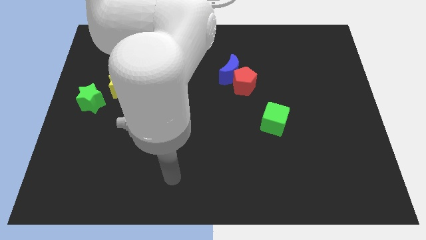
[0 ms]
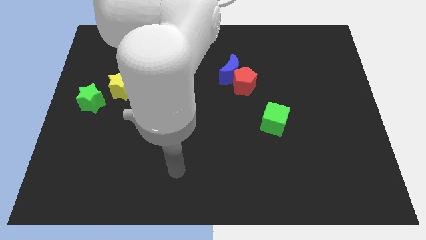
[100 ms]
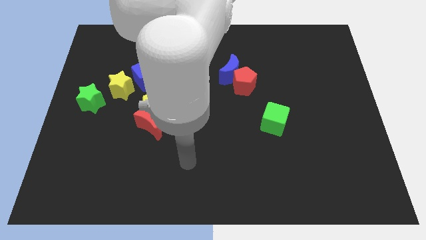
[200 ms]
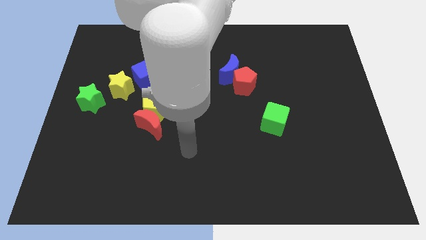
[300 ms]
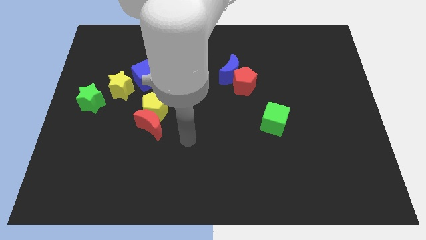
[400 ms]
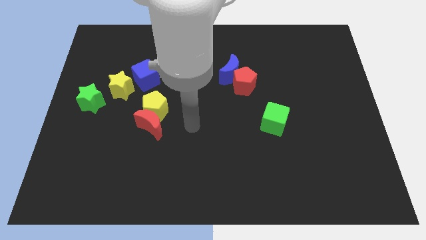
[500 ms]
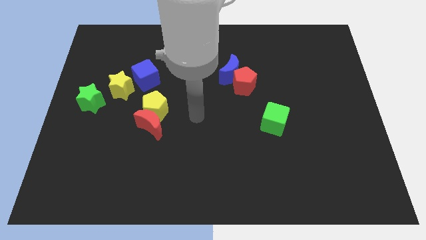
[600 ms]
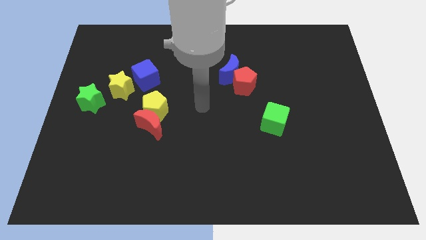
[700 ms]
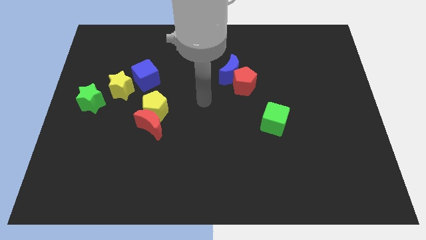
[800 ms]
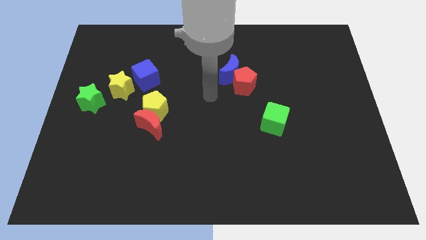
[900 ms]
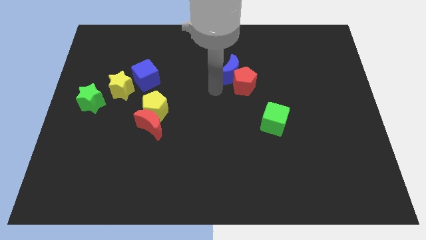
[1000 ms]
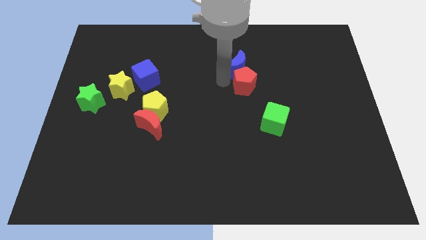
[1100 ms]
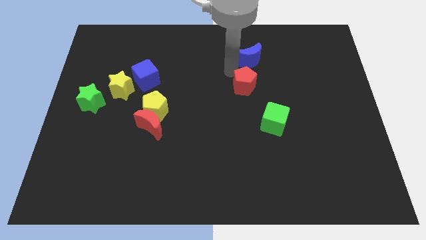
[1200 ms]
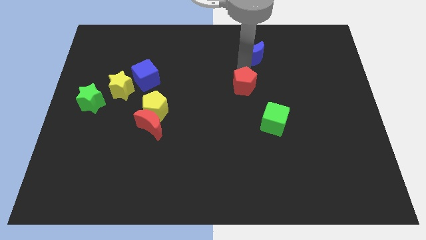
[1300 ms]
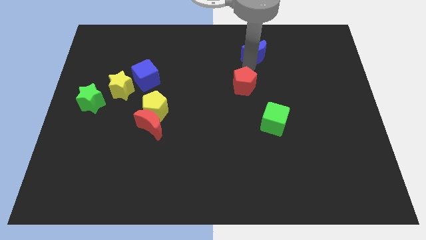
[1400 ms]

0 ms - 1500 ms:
move the red pentagon away from the blue moon

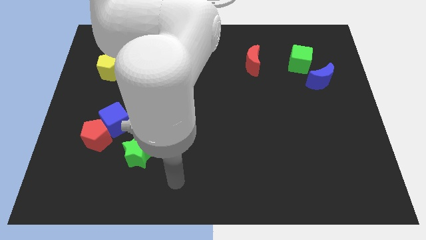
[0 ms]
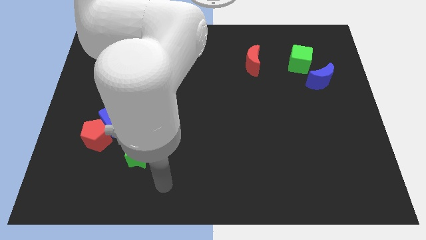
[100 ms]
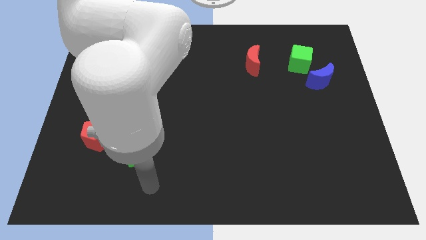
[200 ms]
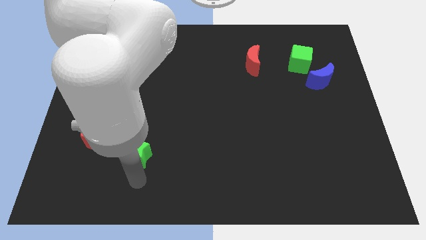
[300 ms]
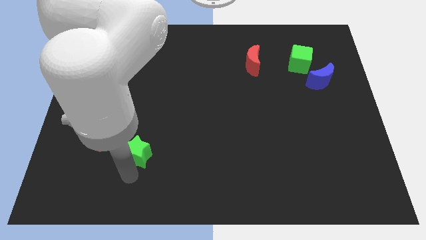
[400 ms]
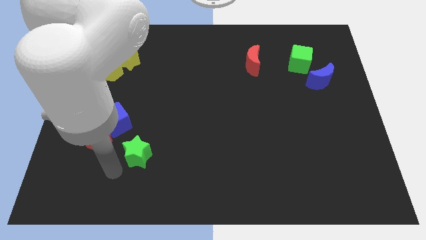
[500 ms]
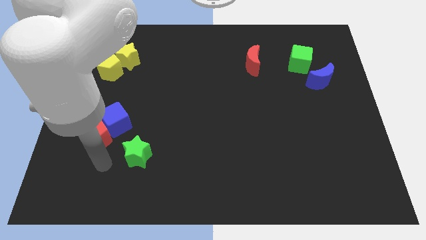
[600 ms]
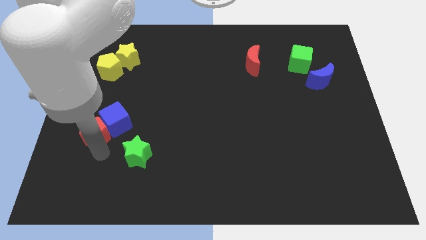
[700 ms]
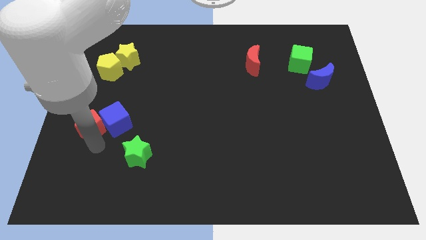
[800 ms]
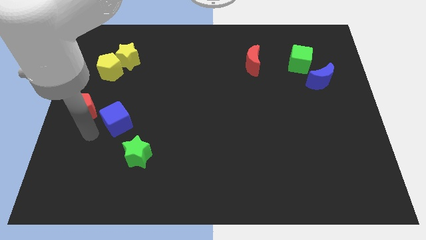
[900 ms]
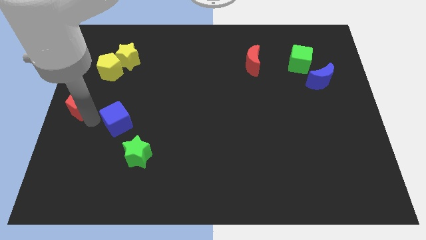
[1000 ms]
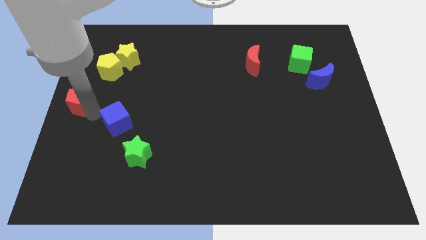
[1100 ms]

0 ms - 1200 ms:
move the blue cube away from the red pentagon

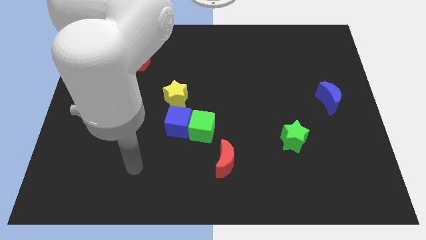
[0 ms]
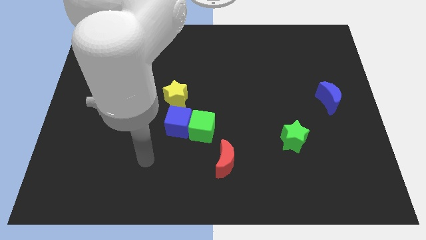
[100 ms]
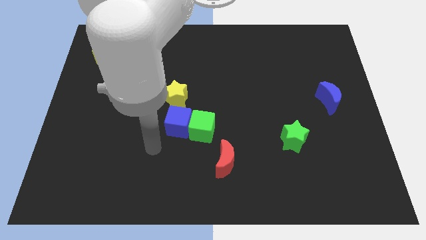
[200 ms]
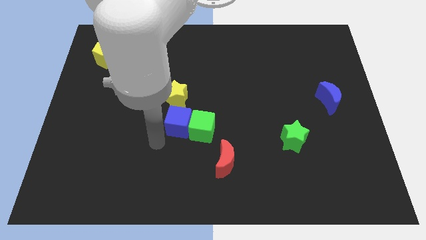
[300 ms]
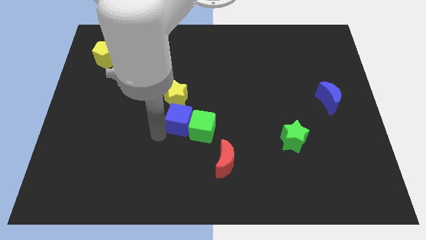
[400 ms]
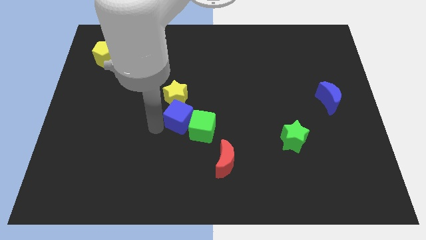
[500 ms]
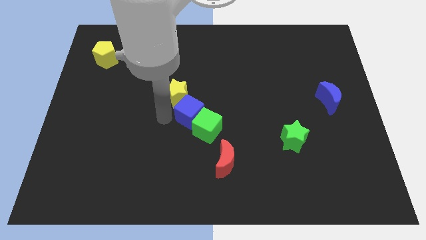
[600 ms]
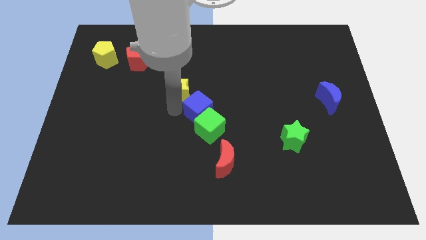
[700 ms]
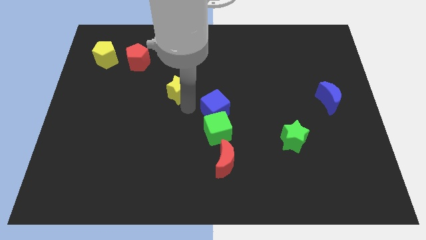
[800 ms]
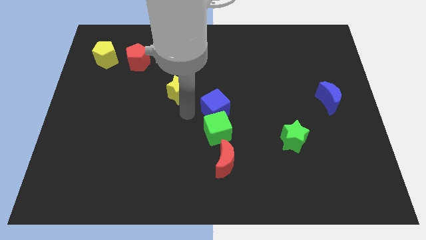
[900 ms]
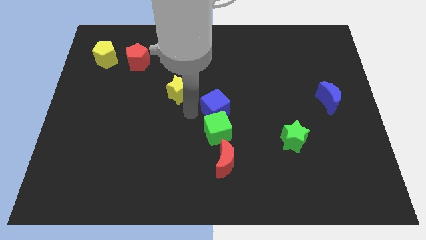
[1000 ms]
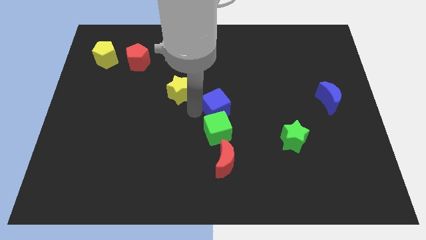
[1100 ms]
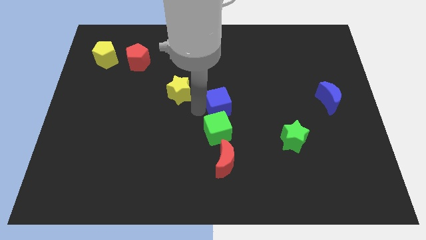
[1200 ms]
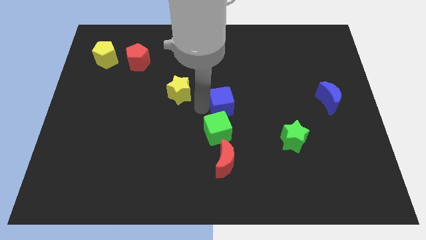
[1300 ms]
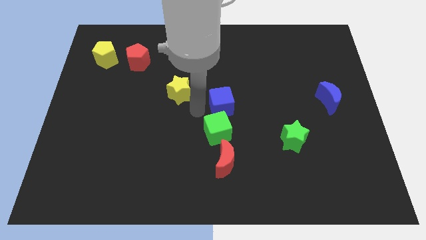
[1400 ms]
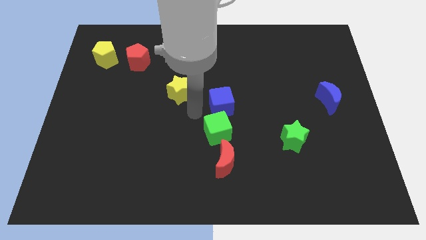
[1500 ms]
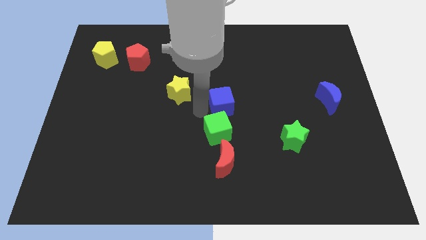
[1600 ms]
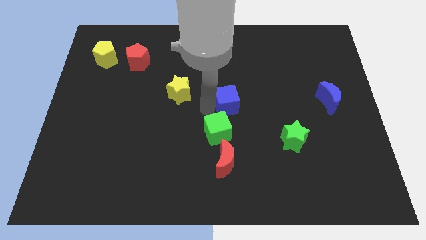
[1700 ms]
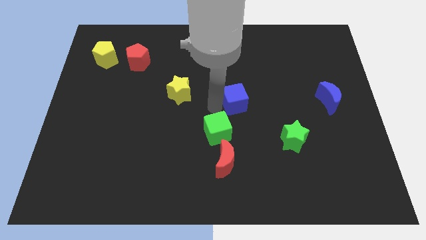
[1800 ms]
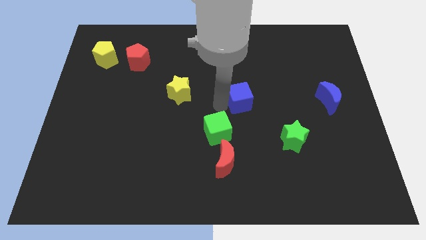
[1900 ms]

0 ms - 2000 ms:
separate the blue cube from the green cube and yellow star

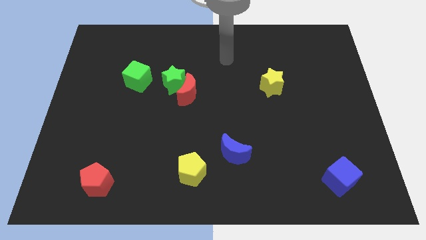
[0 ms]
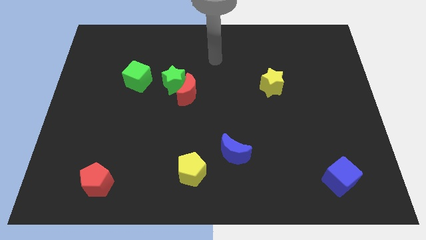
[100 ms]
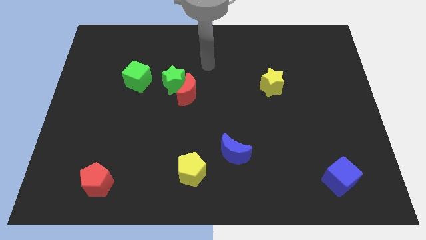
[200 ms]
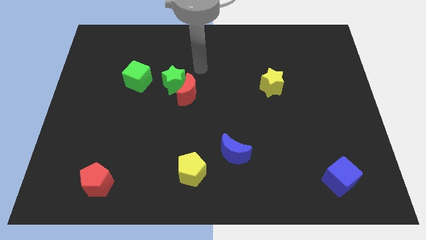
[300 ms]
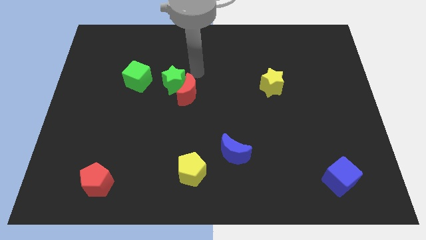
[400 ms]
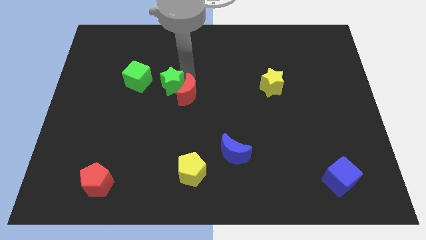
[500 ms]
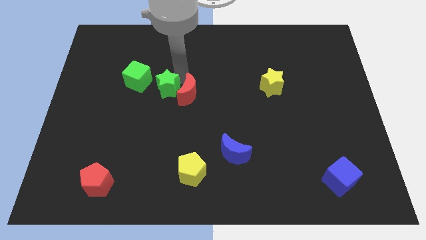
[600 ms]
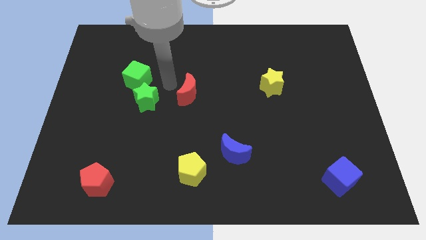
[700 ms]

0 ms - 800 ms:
pull the red moon apart from the green star

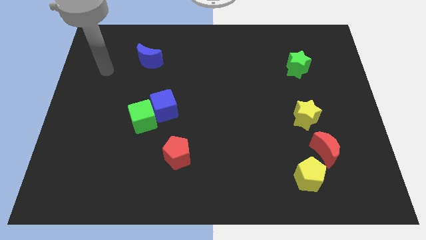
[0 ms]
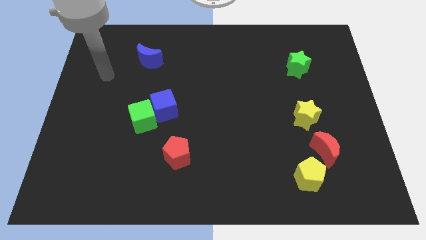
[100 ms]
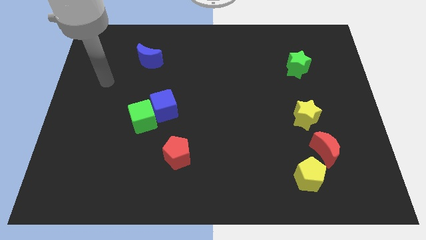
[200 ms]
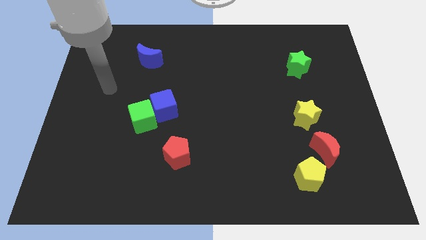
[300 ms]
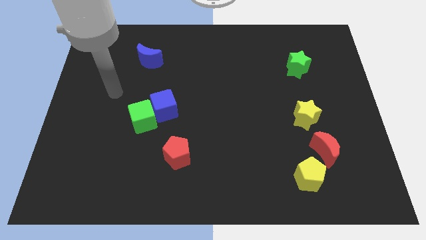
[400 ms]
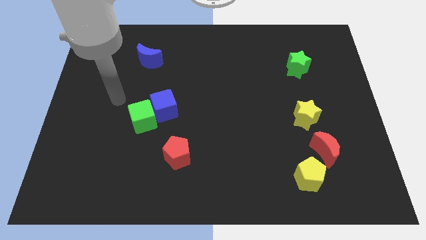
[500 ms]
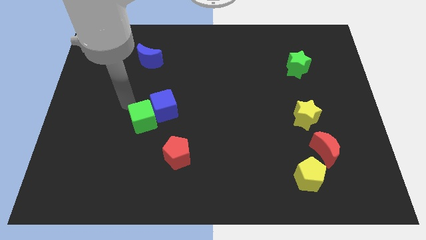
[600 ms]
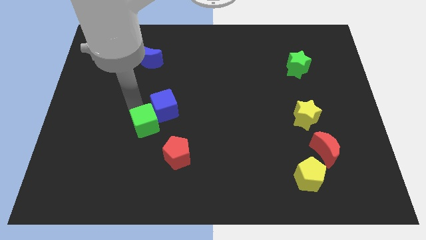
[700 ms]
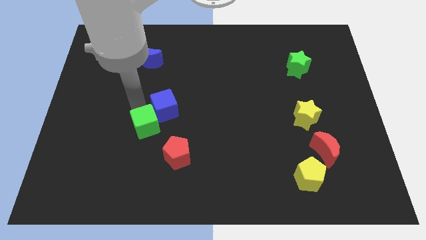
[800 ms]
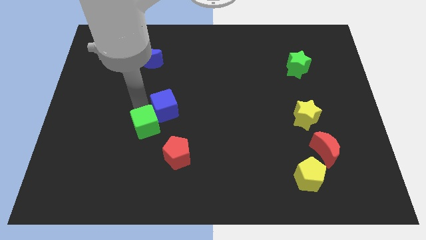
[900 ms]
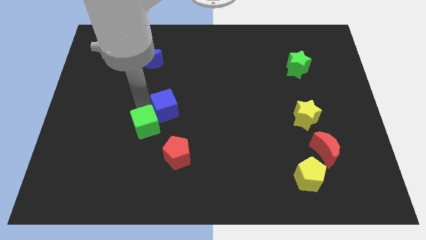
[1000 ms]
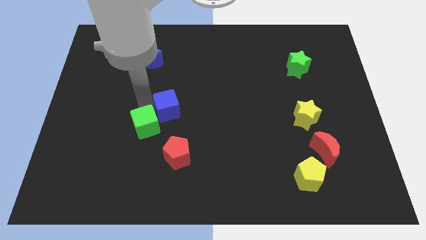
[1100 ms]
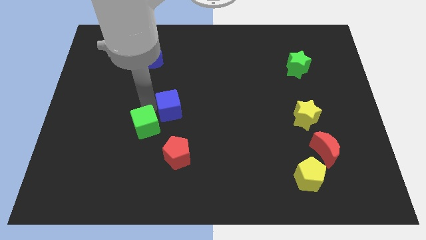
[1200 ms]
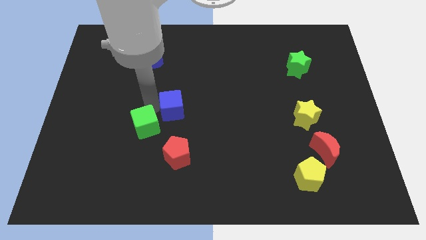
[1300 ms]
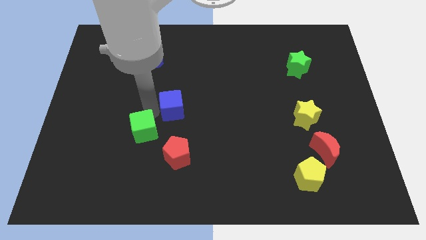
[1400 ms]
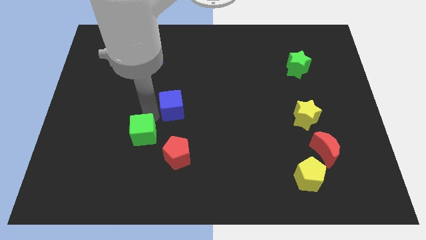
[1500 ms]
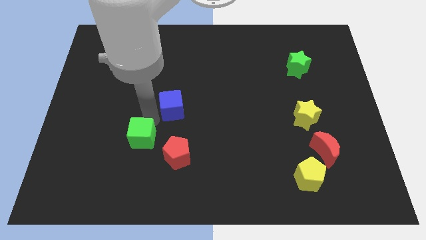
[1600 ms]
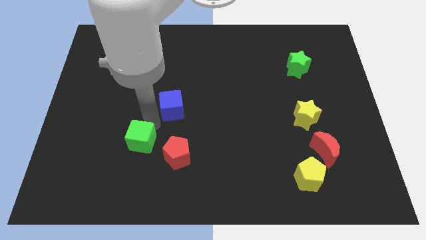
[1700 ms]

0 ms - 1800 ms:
move the blue cube away from the green cube

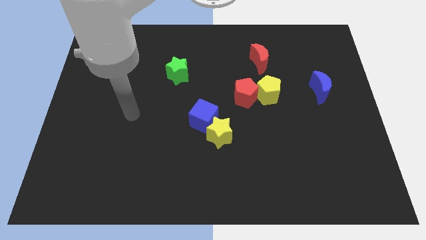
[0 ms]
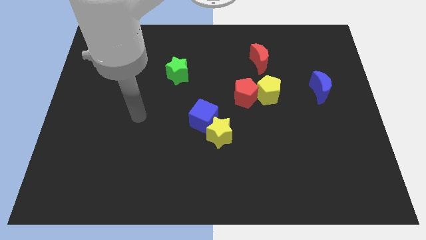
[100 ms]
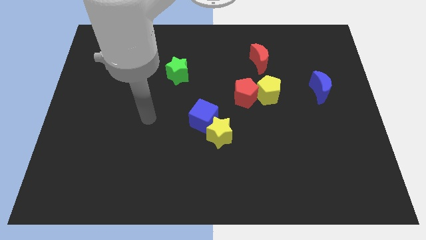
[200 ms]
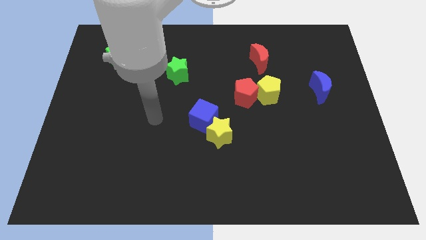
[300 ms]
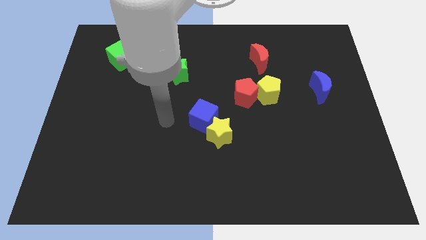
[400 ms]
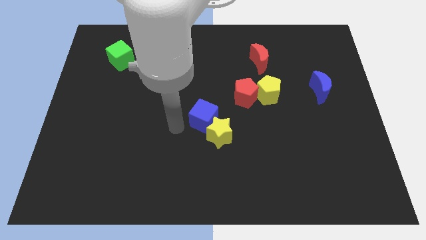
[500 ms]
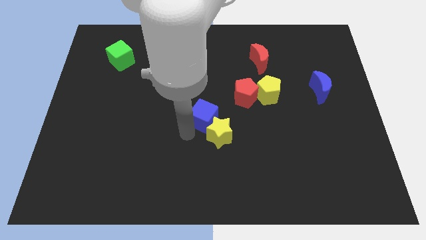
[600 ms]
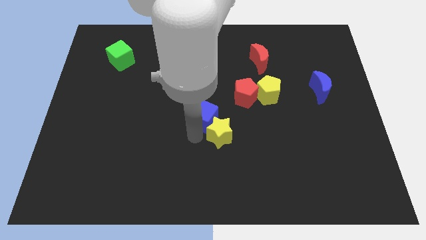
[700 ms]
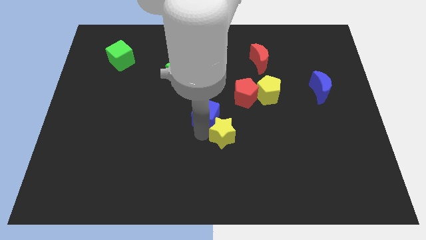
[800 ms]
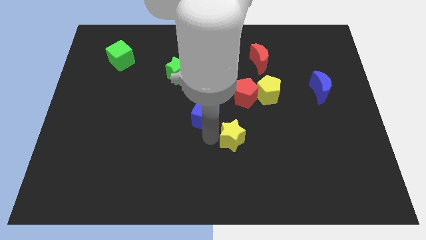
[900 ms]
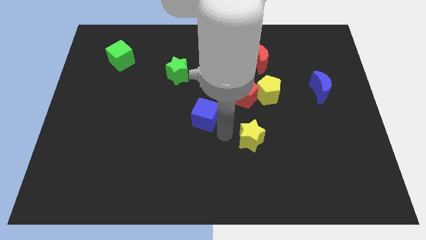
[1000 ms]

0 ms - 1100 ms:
pull the blue cube apart from the yellow star

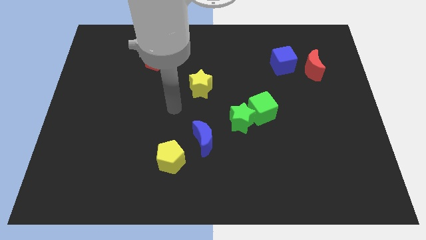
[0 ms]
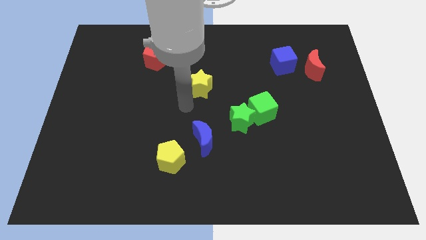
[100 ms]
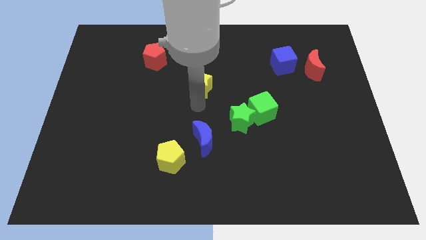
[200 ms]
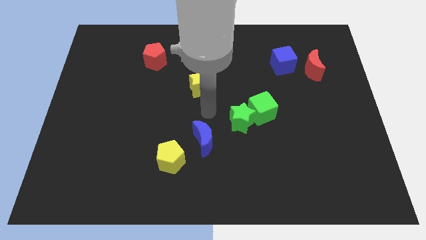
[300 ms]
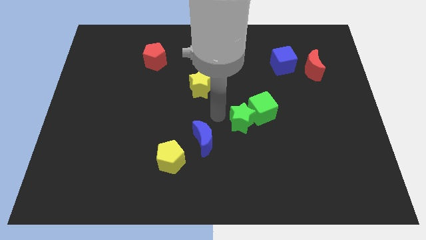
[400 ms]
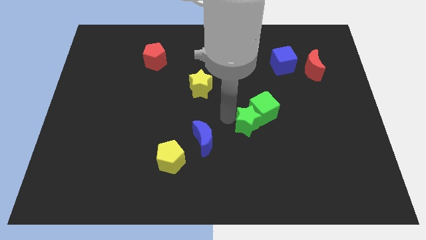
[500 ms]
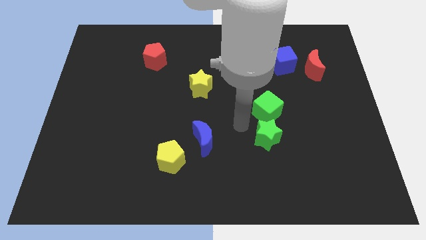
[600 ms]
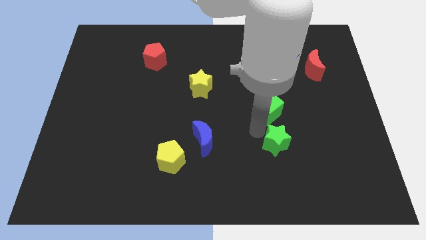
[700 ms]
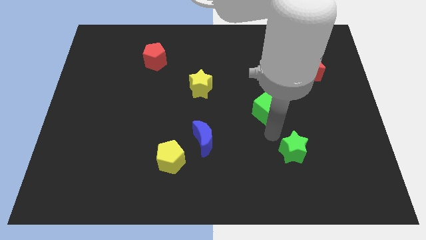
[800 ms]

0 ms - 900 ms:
move the green cube away from the green star
